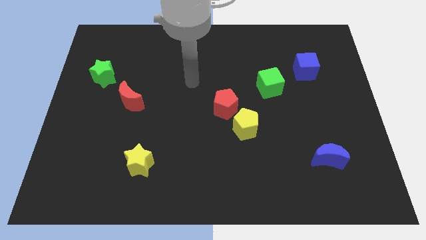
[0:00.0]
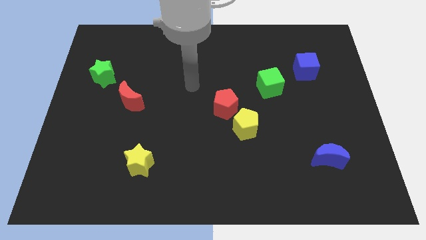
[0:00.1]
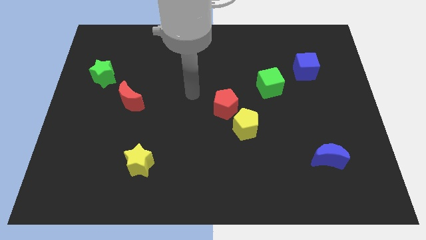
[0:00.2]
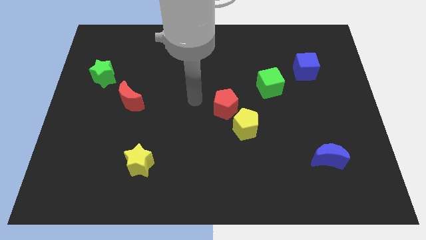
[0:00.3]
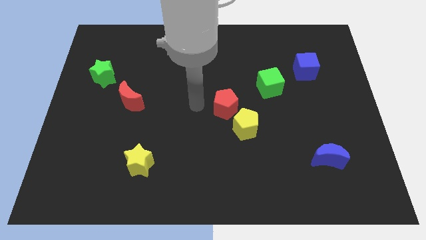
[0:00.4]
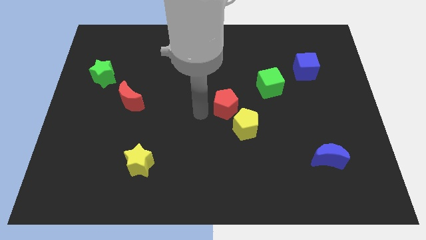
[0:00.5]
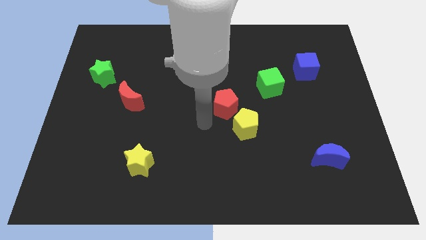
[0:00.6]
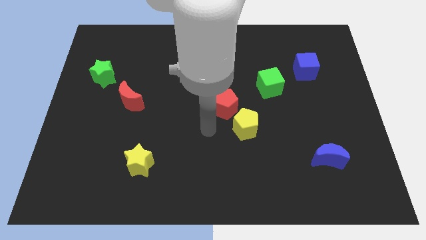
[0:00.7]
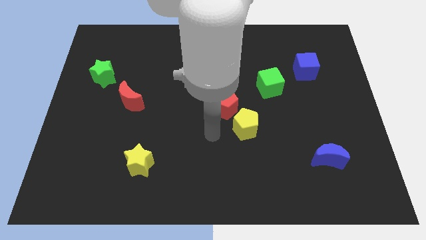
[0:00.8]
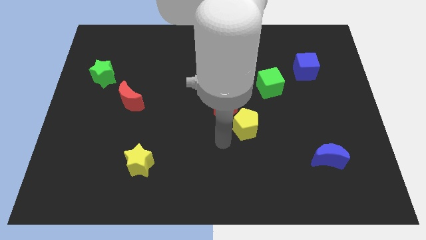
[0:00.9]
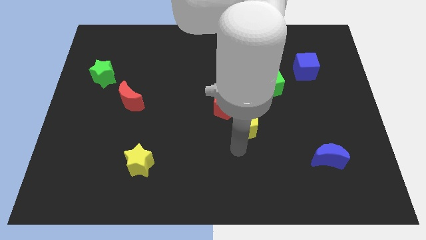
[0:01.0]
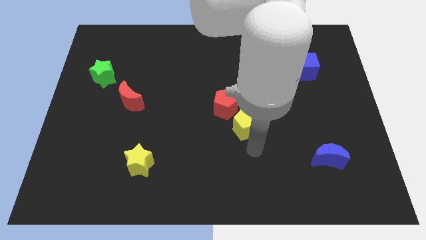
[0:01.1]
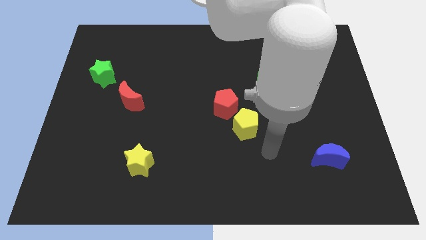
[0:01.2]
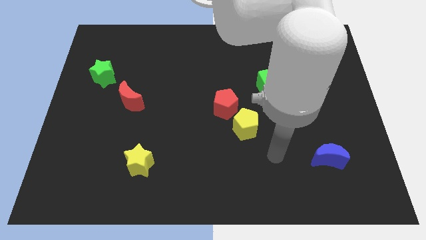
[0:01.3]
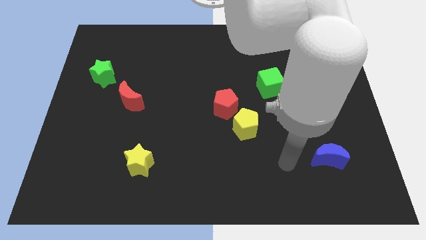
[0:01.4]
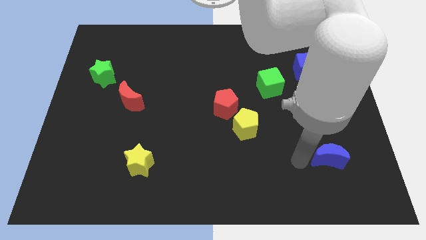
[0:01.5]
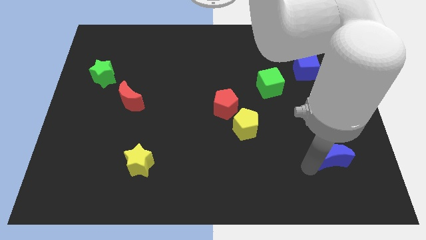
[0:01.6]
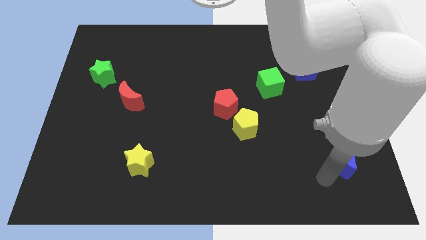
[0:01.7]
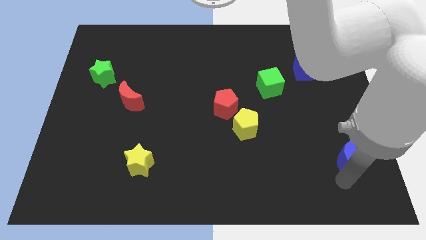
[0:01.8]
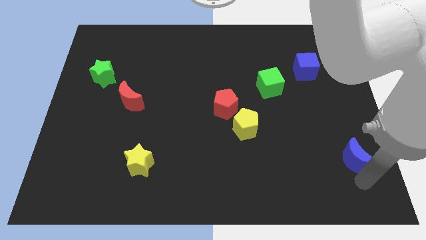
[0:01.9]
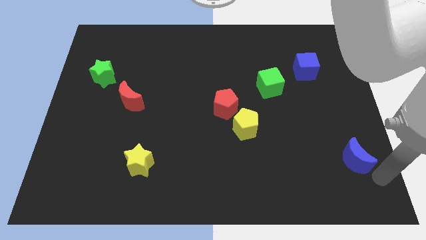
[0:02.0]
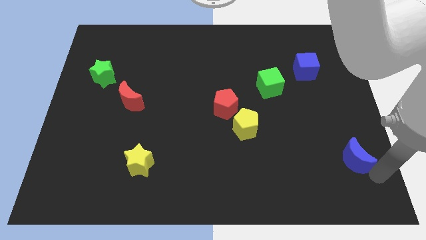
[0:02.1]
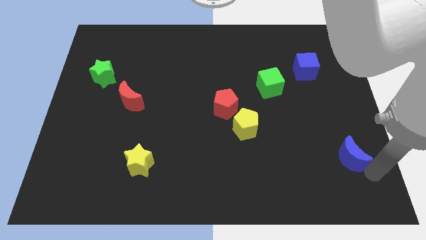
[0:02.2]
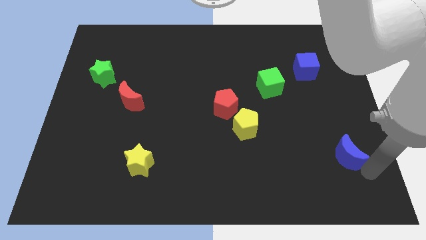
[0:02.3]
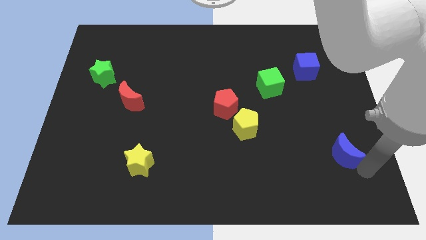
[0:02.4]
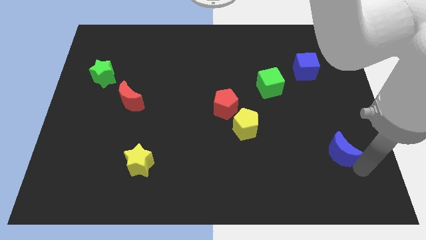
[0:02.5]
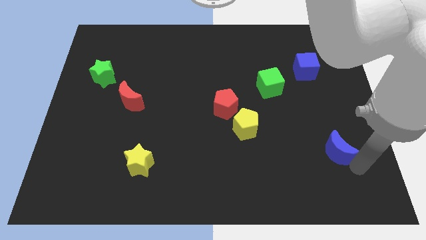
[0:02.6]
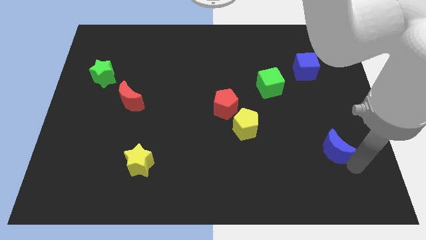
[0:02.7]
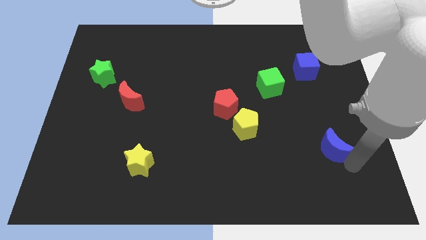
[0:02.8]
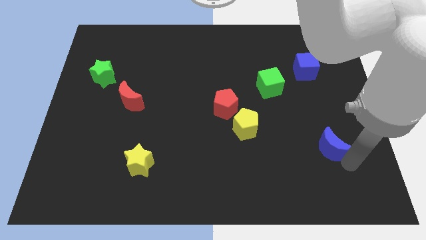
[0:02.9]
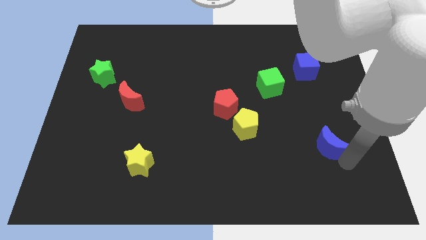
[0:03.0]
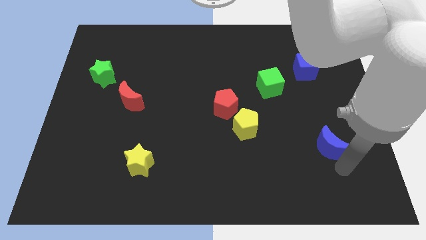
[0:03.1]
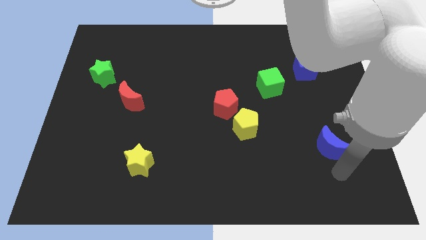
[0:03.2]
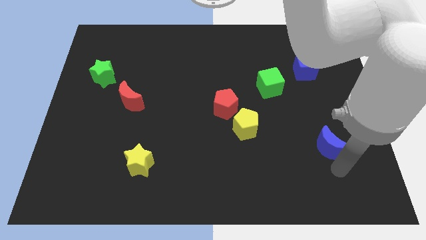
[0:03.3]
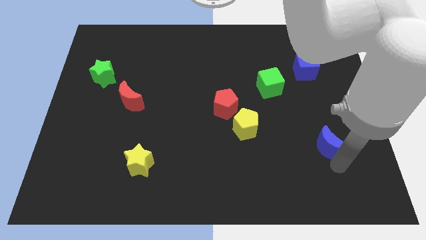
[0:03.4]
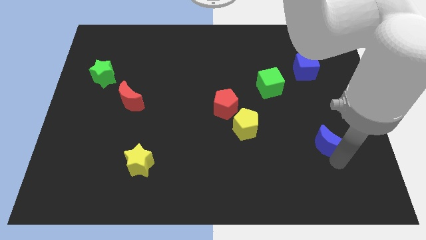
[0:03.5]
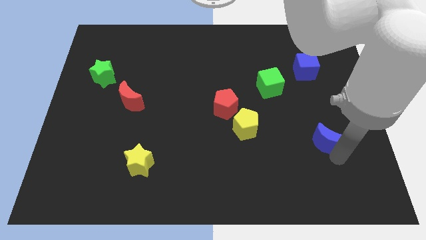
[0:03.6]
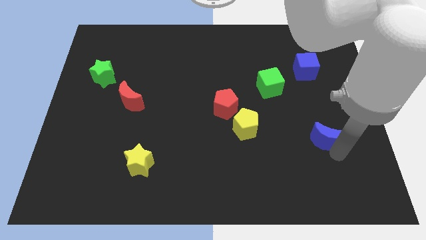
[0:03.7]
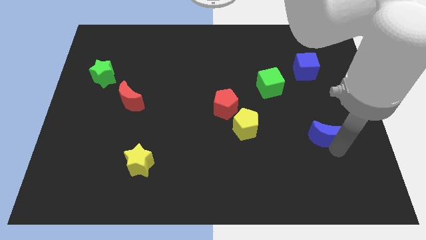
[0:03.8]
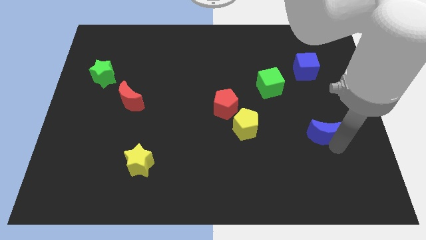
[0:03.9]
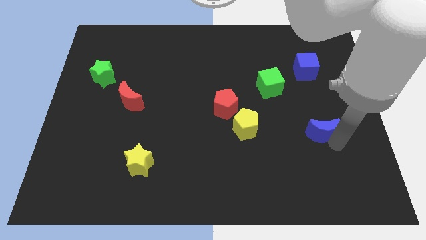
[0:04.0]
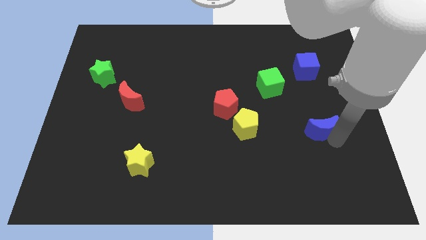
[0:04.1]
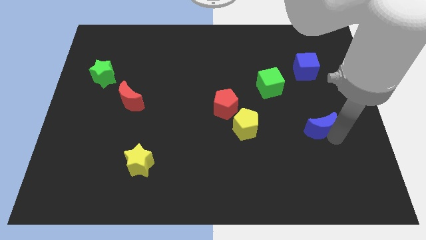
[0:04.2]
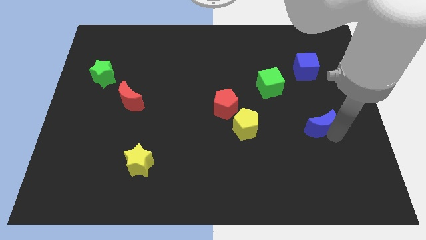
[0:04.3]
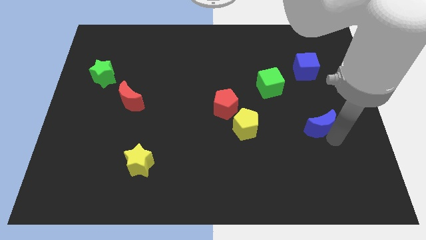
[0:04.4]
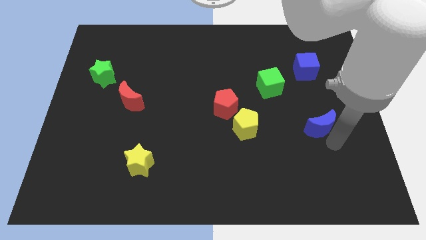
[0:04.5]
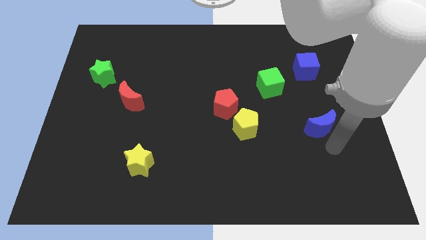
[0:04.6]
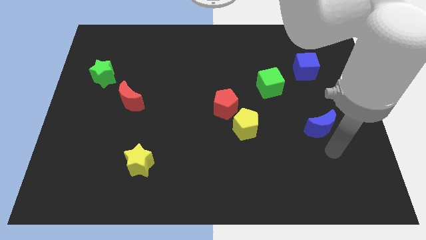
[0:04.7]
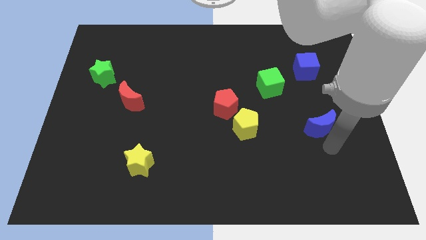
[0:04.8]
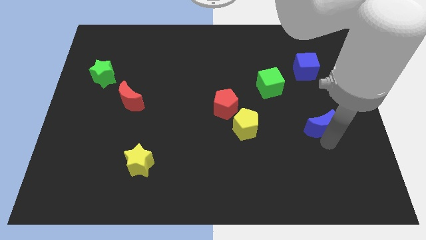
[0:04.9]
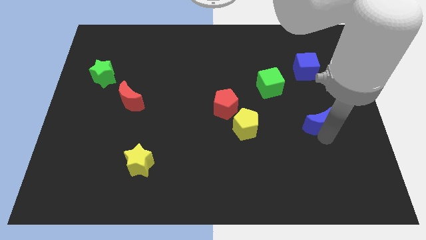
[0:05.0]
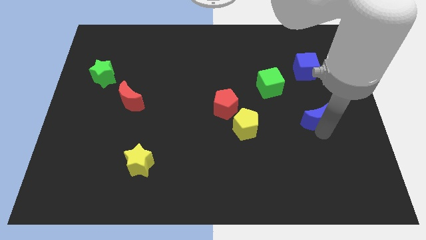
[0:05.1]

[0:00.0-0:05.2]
slide the blue moon to the bottom of the blue cube

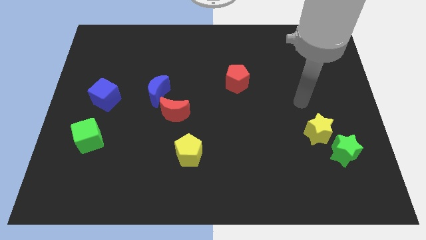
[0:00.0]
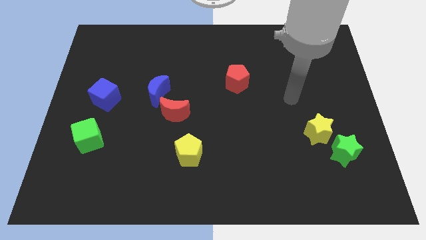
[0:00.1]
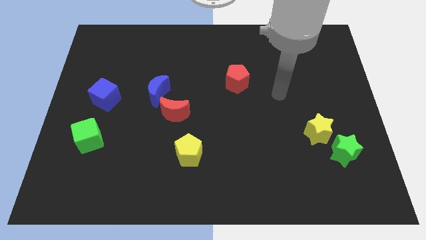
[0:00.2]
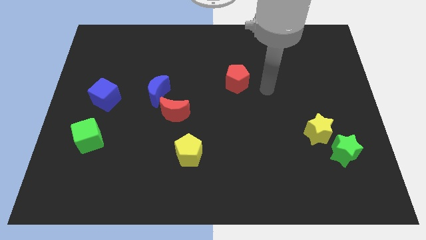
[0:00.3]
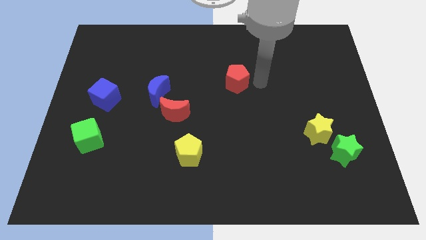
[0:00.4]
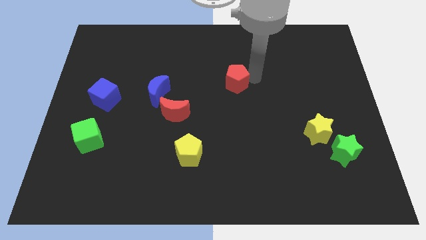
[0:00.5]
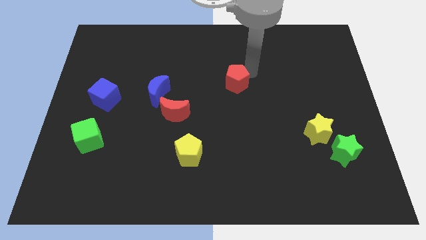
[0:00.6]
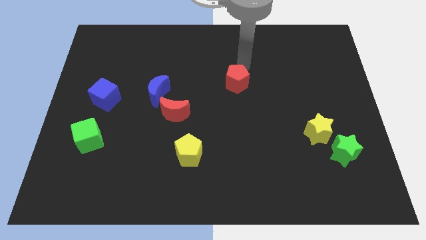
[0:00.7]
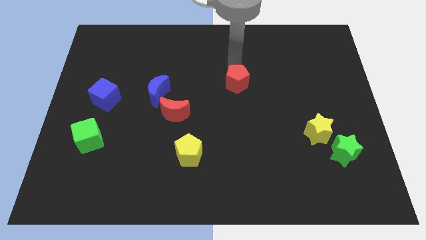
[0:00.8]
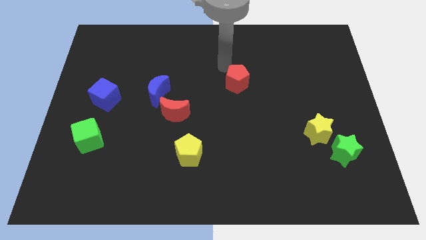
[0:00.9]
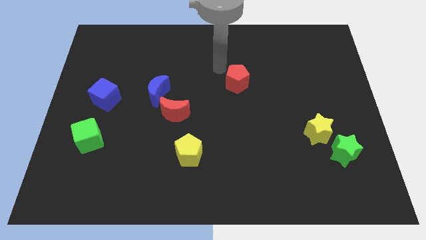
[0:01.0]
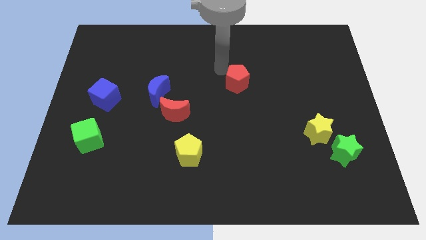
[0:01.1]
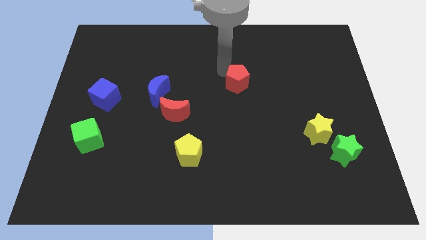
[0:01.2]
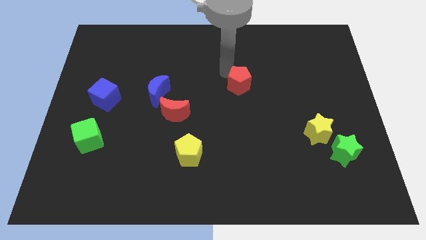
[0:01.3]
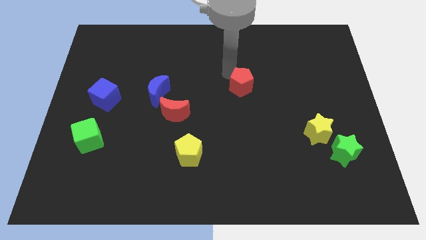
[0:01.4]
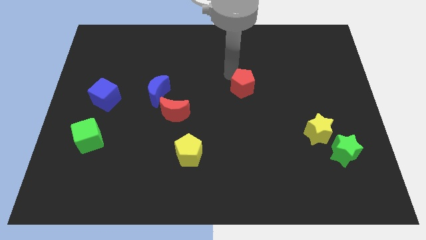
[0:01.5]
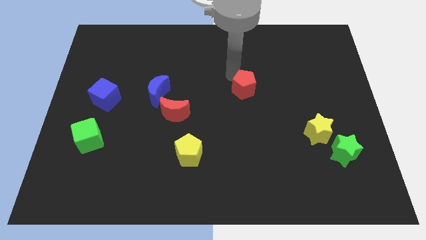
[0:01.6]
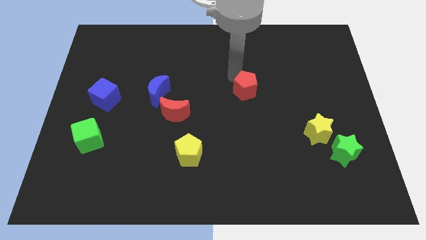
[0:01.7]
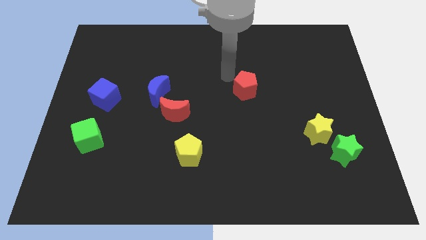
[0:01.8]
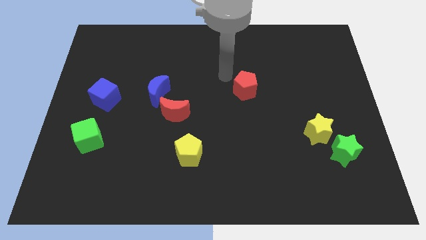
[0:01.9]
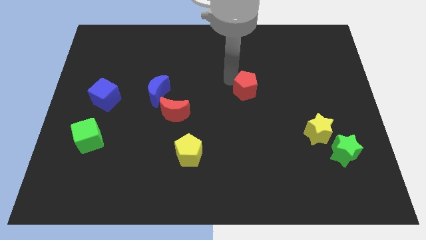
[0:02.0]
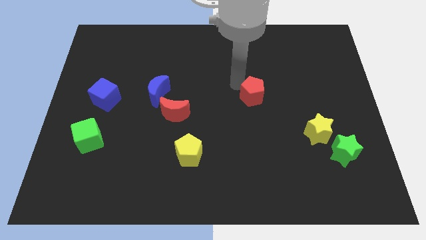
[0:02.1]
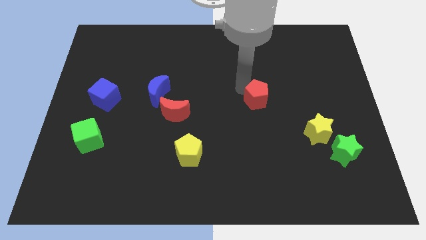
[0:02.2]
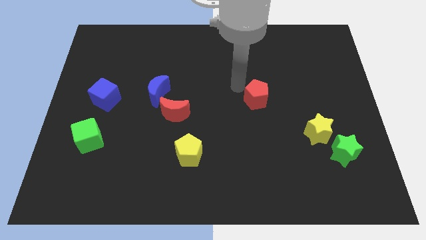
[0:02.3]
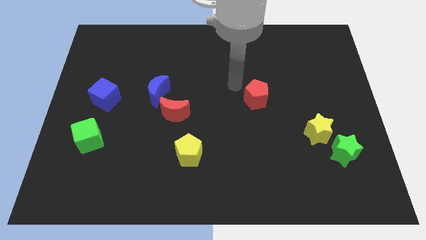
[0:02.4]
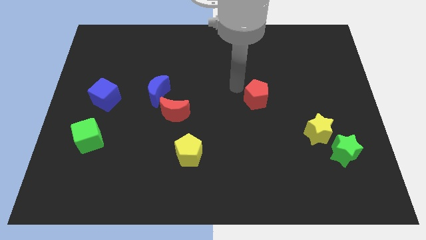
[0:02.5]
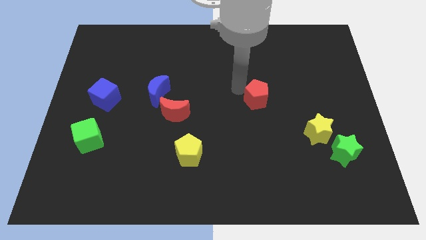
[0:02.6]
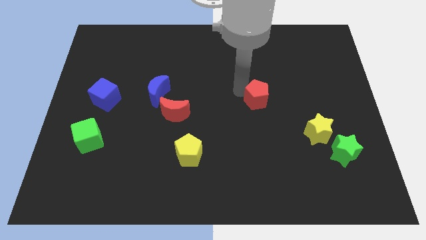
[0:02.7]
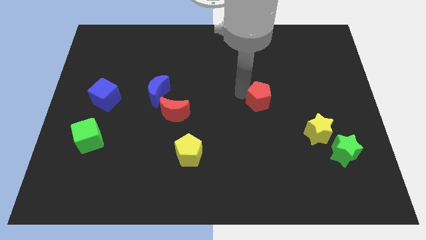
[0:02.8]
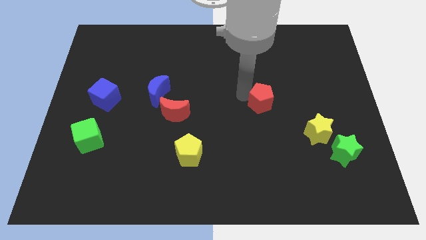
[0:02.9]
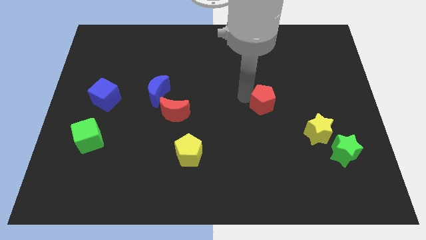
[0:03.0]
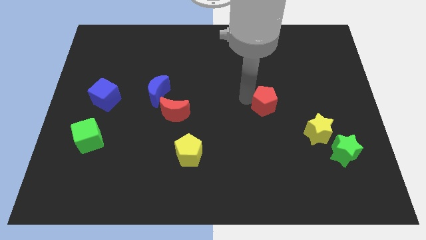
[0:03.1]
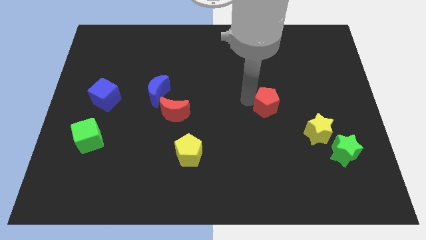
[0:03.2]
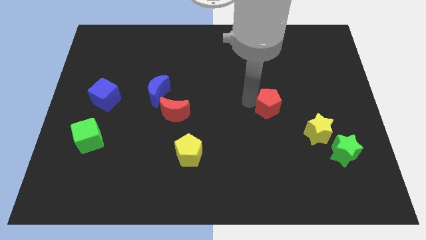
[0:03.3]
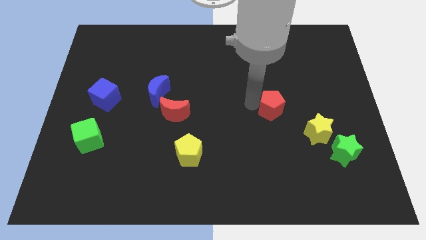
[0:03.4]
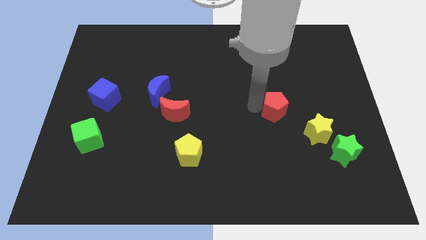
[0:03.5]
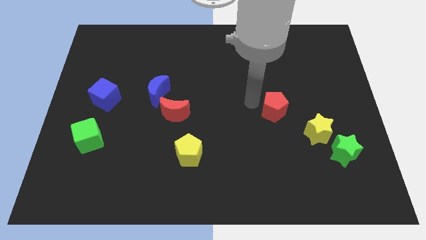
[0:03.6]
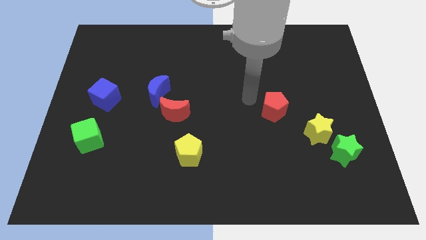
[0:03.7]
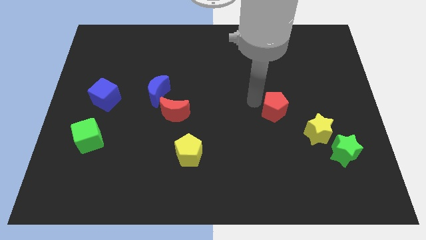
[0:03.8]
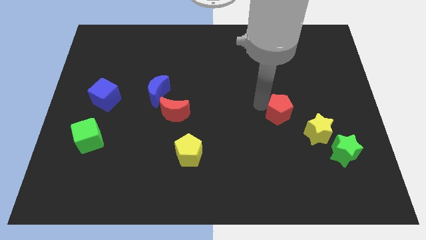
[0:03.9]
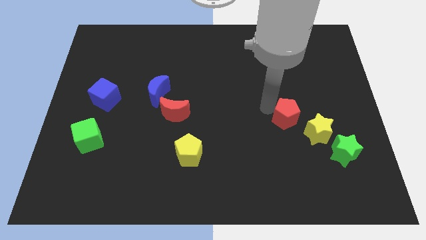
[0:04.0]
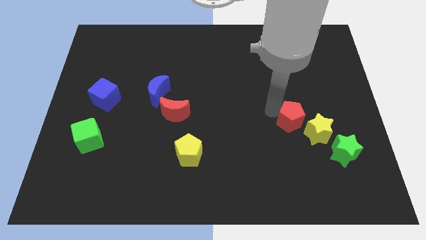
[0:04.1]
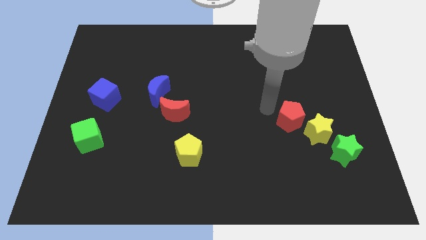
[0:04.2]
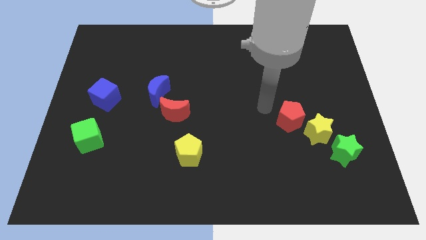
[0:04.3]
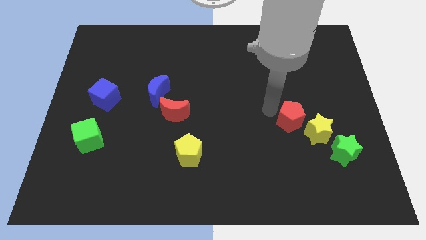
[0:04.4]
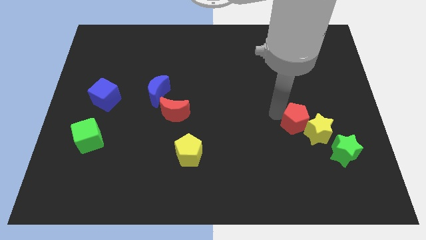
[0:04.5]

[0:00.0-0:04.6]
push the red pentagon to the top left side of the green star
